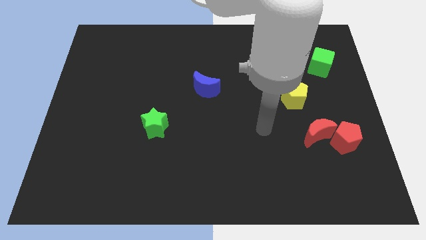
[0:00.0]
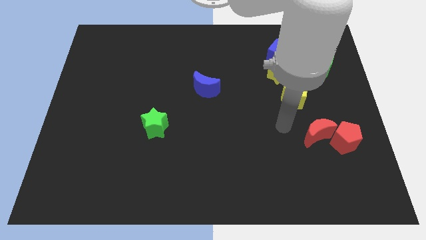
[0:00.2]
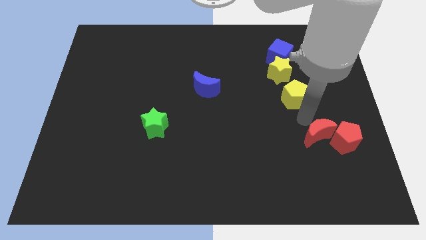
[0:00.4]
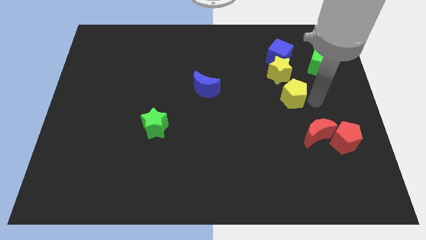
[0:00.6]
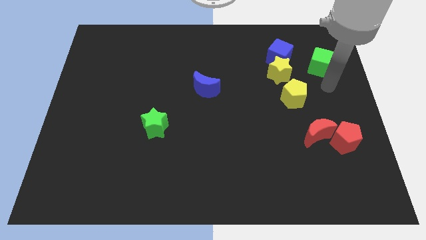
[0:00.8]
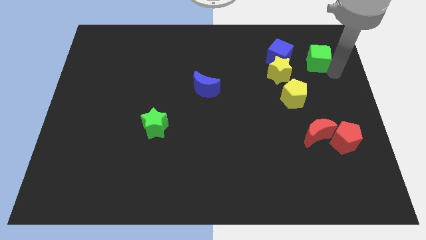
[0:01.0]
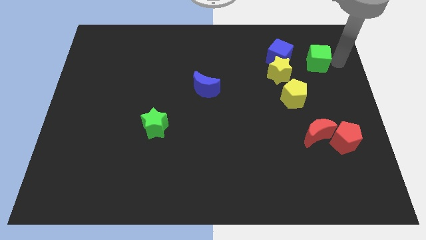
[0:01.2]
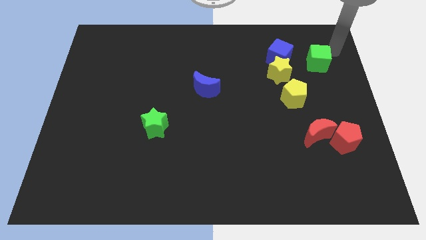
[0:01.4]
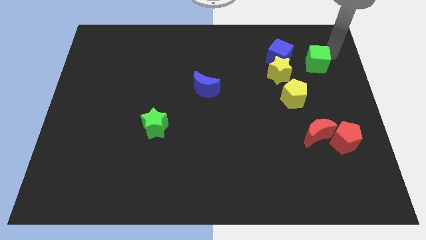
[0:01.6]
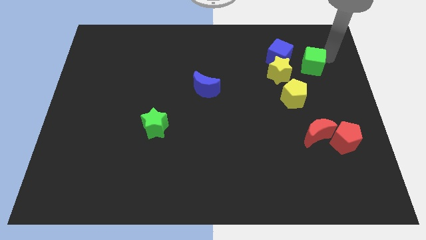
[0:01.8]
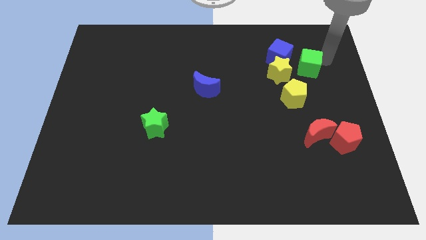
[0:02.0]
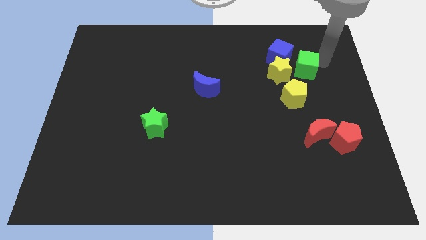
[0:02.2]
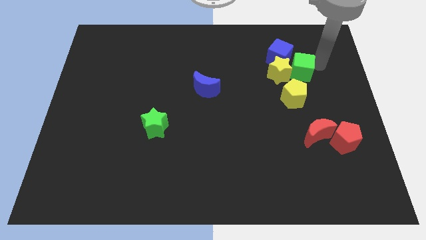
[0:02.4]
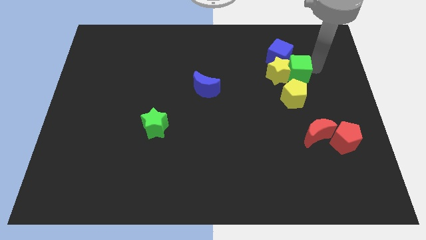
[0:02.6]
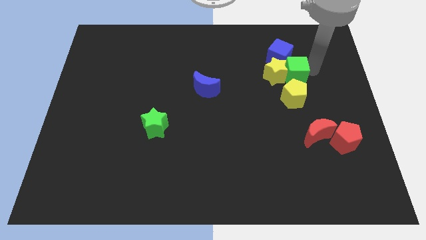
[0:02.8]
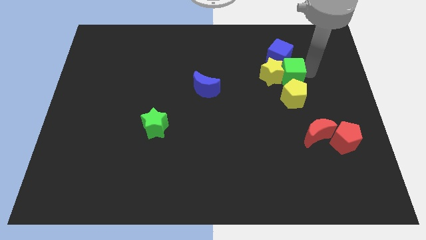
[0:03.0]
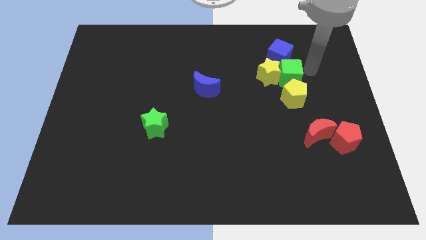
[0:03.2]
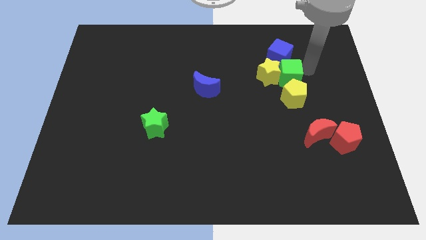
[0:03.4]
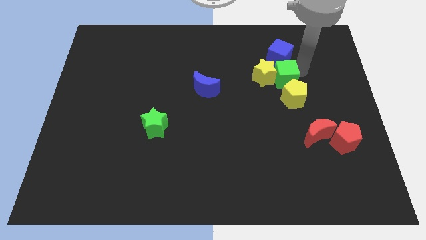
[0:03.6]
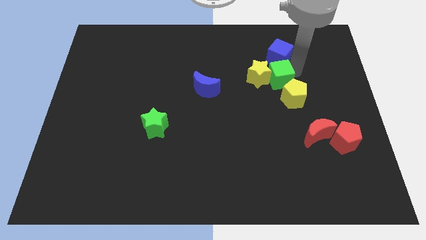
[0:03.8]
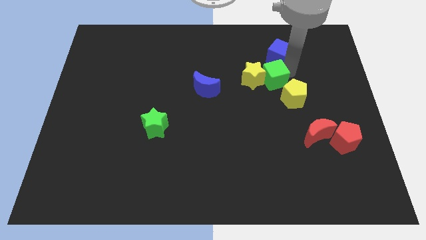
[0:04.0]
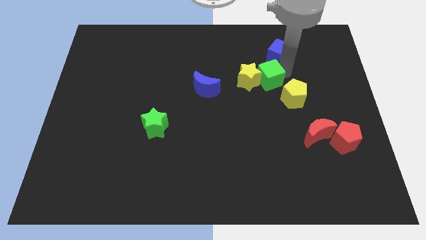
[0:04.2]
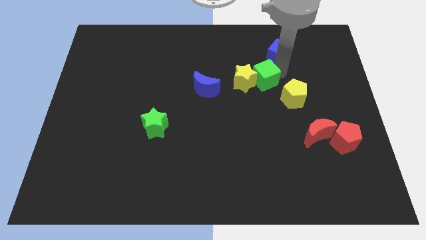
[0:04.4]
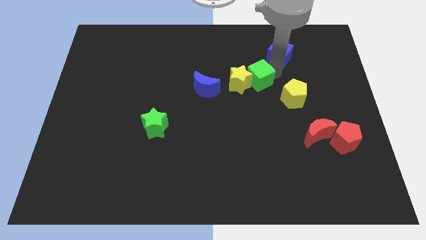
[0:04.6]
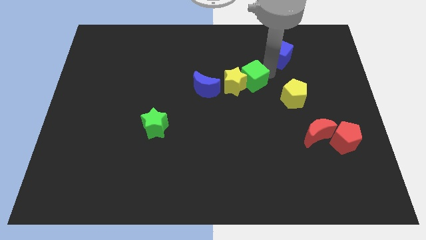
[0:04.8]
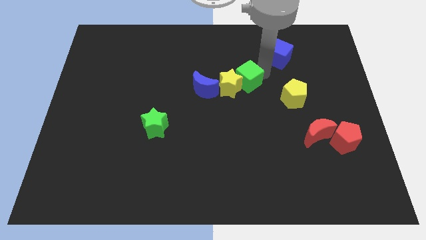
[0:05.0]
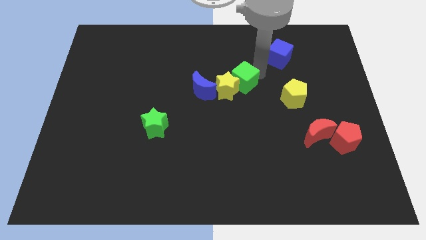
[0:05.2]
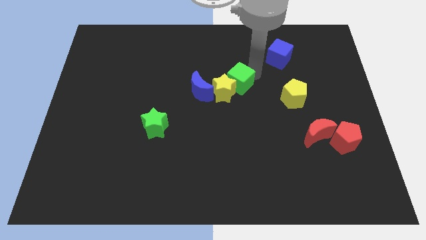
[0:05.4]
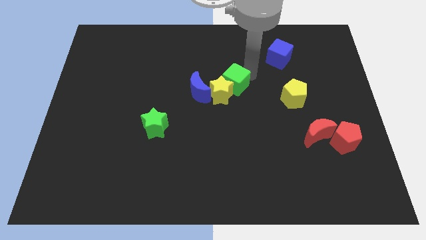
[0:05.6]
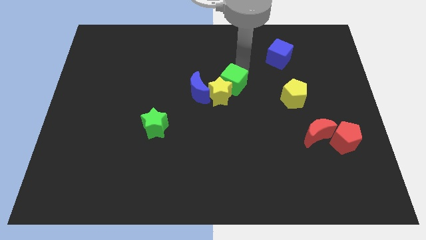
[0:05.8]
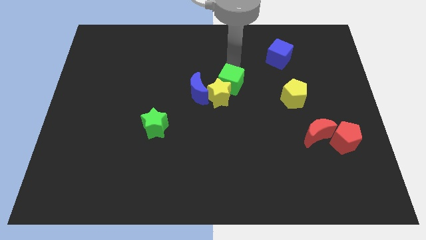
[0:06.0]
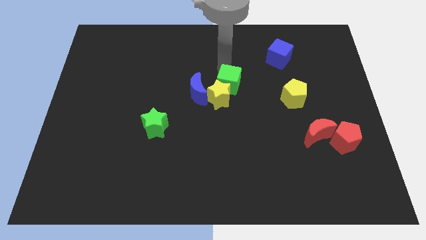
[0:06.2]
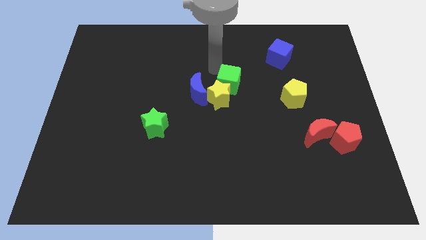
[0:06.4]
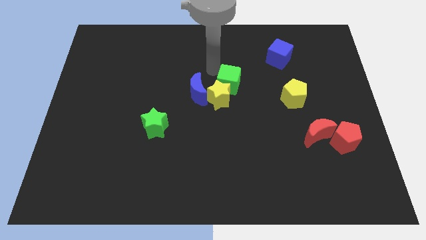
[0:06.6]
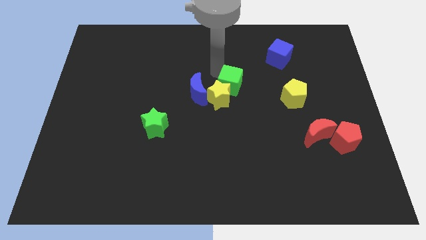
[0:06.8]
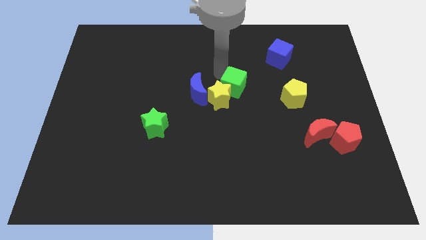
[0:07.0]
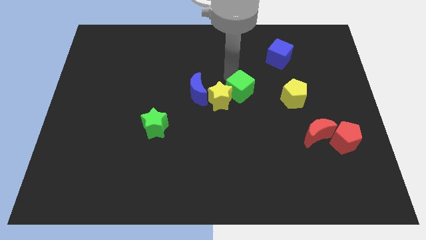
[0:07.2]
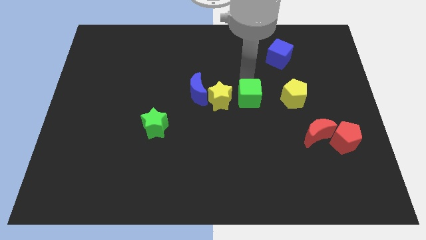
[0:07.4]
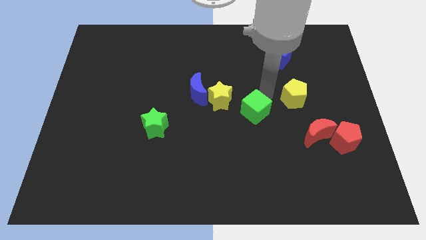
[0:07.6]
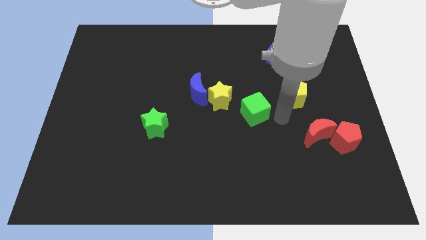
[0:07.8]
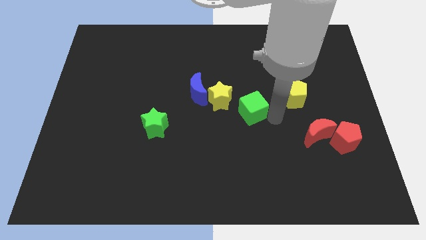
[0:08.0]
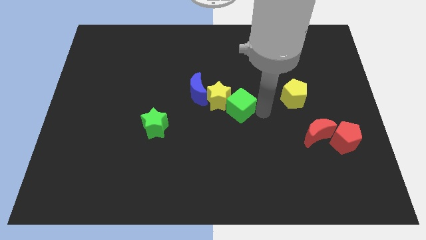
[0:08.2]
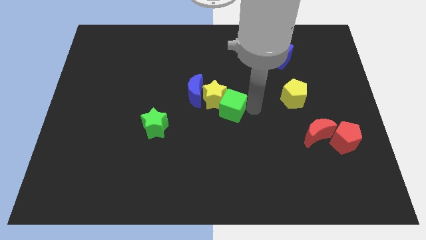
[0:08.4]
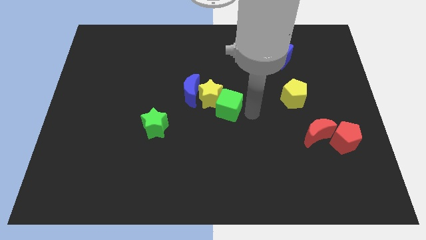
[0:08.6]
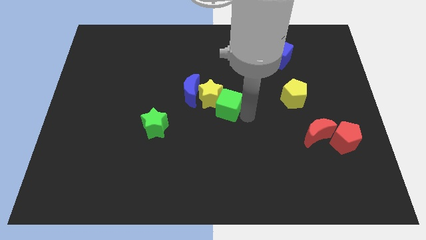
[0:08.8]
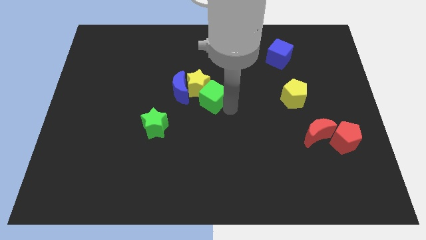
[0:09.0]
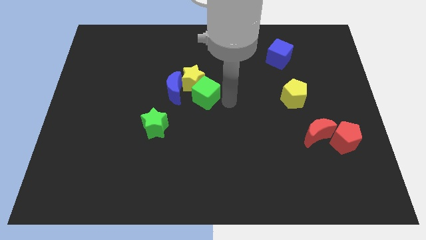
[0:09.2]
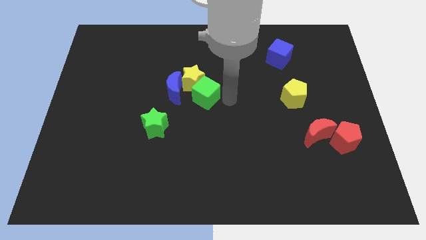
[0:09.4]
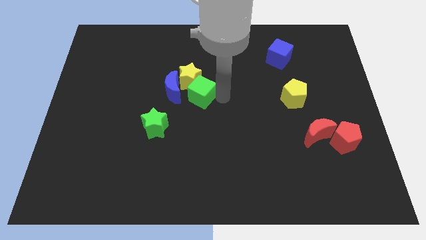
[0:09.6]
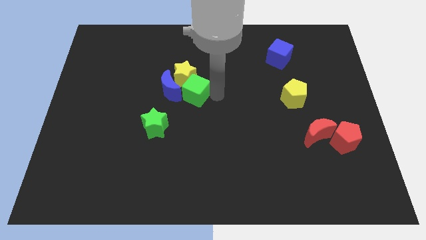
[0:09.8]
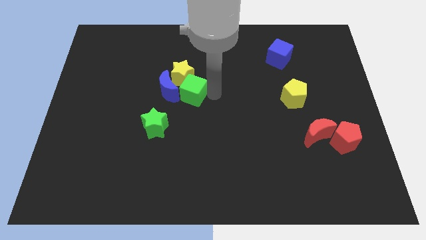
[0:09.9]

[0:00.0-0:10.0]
push the green cube to the blue moon

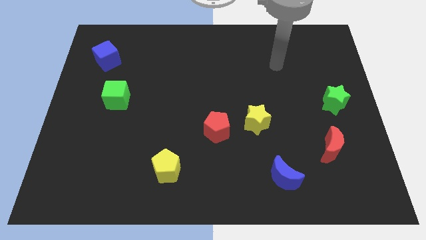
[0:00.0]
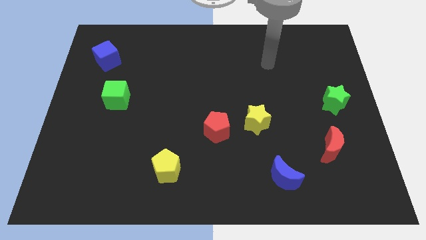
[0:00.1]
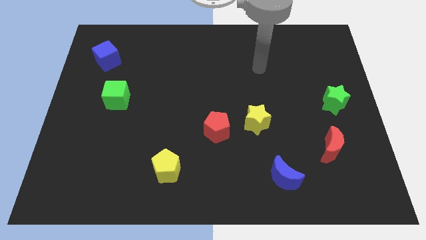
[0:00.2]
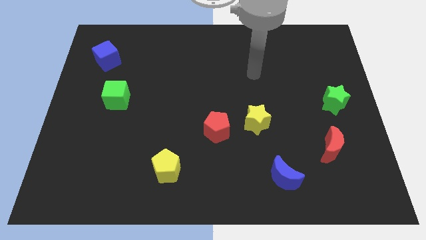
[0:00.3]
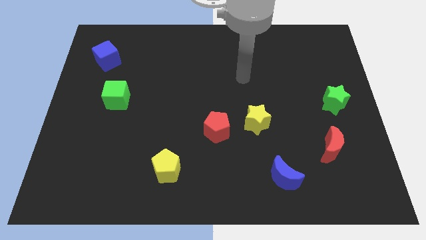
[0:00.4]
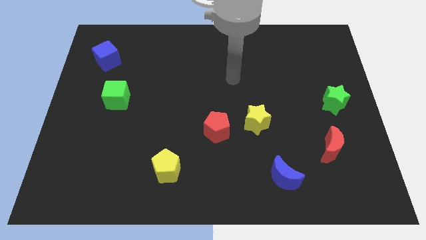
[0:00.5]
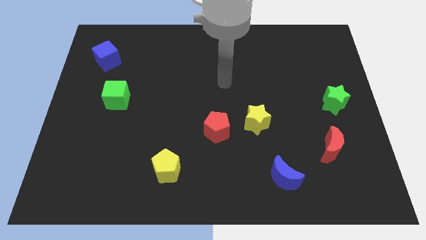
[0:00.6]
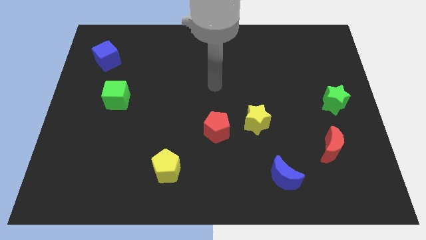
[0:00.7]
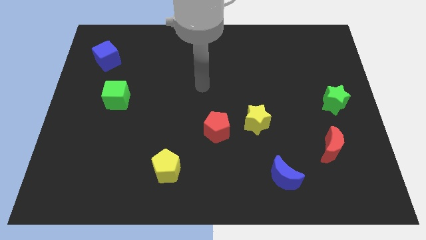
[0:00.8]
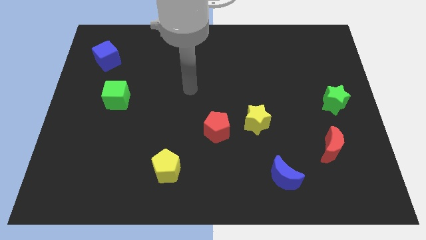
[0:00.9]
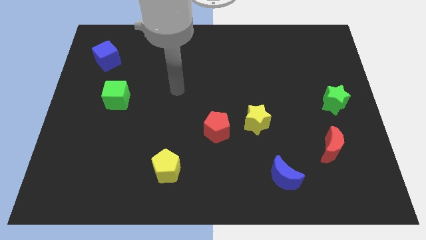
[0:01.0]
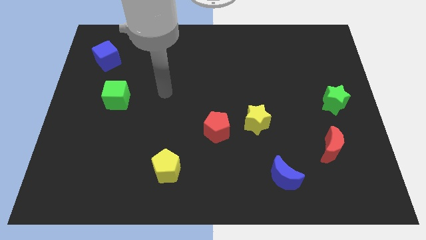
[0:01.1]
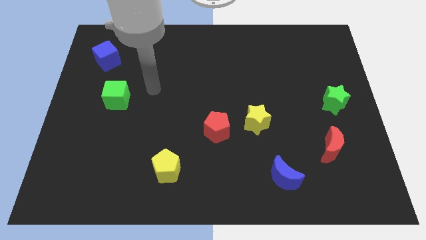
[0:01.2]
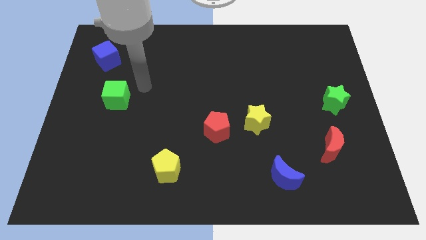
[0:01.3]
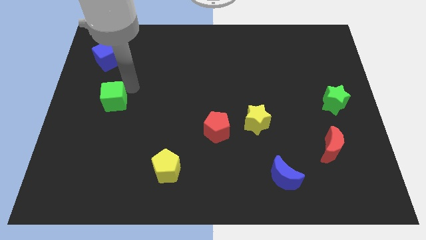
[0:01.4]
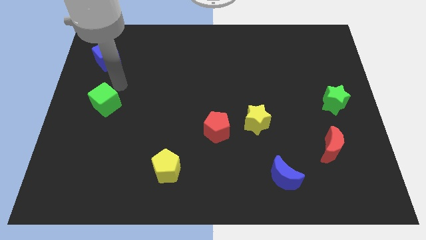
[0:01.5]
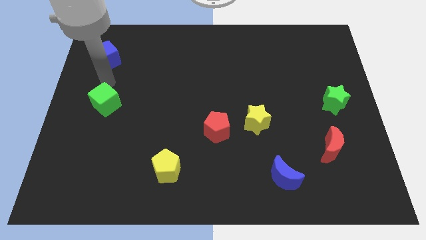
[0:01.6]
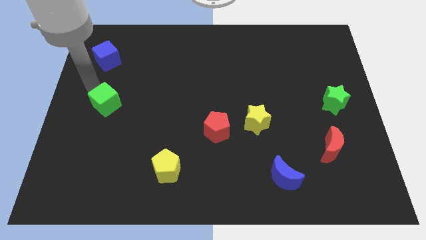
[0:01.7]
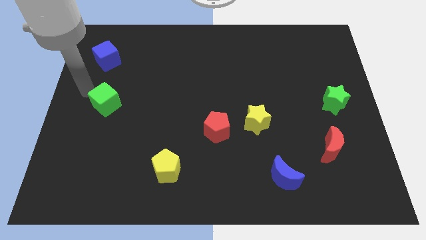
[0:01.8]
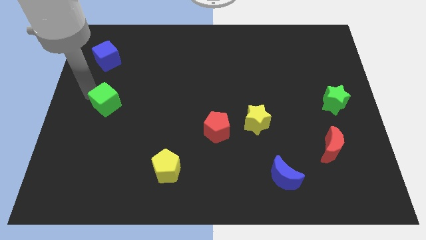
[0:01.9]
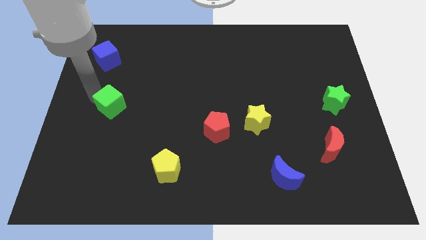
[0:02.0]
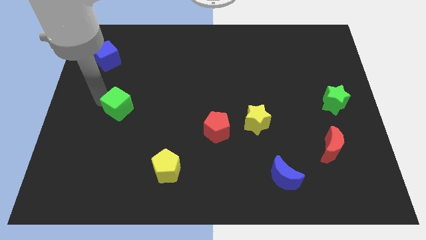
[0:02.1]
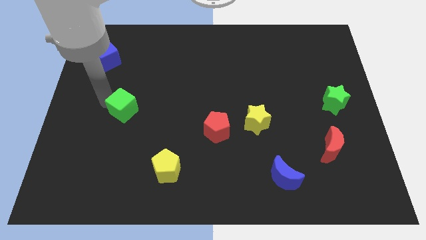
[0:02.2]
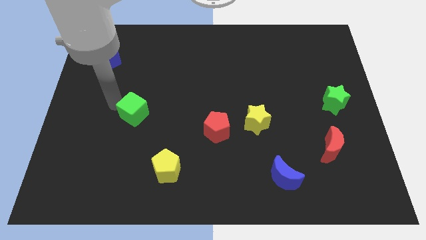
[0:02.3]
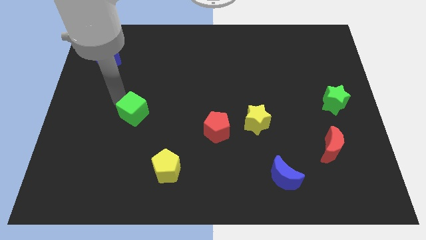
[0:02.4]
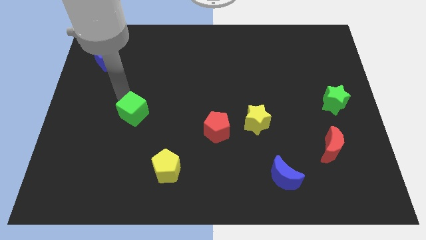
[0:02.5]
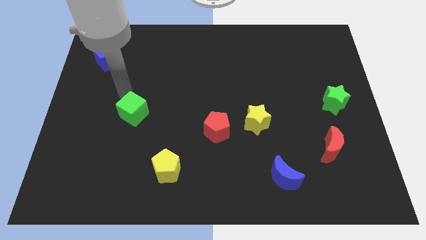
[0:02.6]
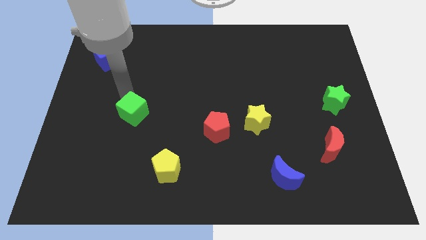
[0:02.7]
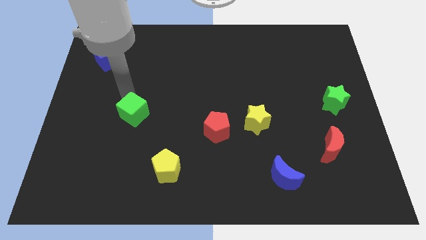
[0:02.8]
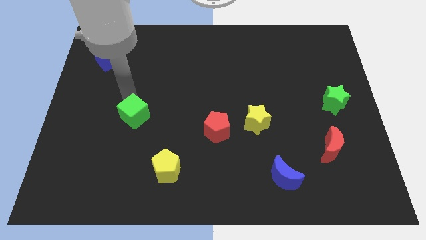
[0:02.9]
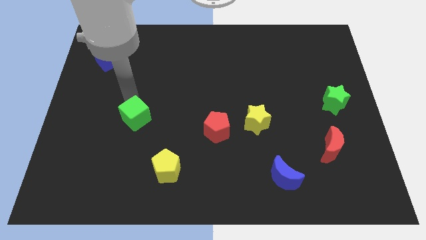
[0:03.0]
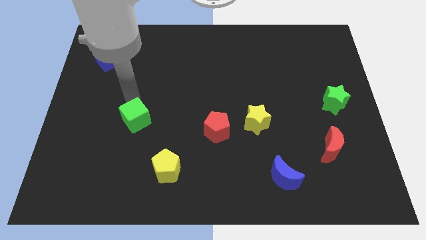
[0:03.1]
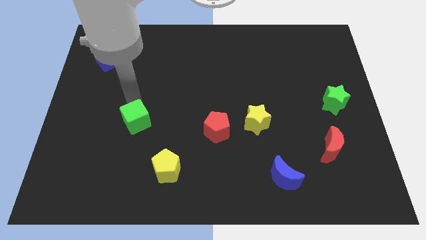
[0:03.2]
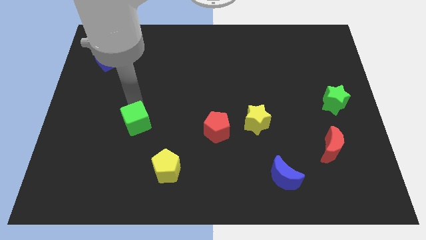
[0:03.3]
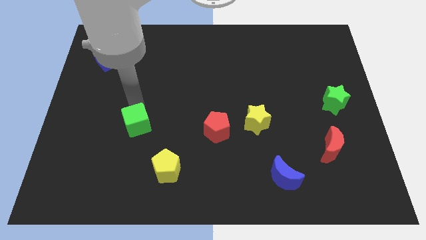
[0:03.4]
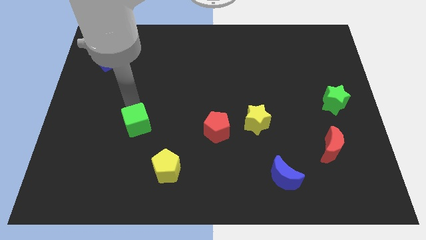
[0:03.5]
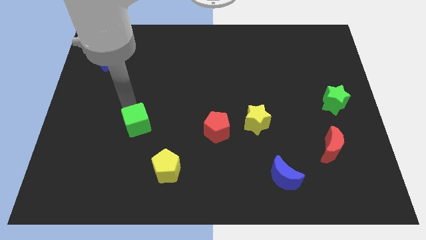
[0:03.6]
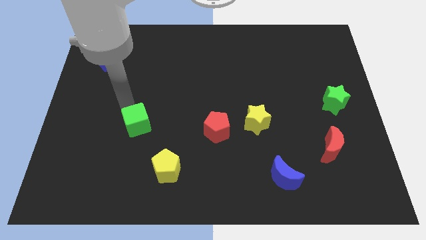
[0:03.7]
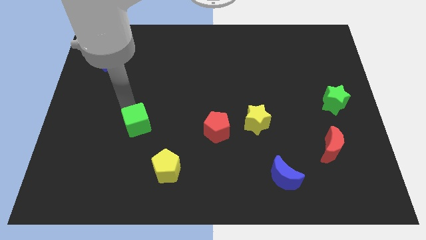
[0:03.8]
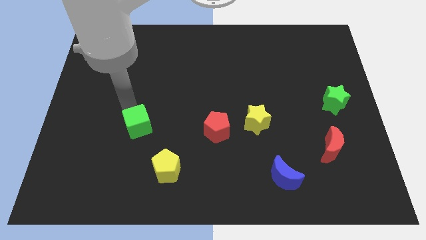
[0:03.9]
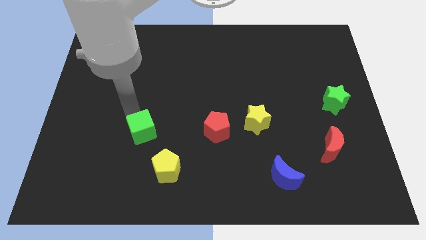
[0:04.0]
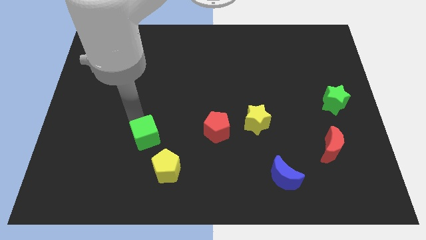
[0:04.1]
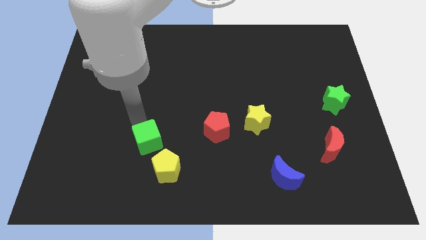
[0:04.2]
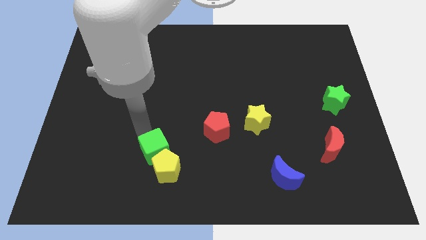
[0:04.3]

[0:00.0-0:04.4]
move the green cube to the yellow pentagon
